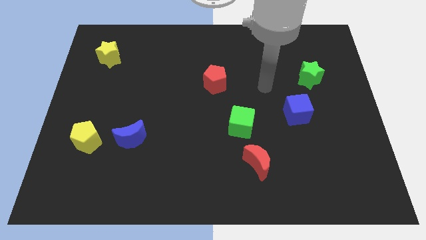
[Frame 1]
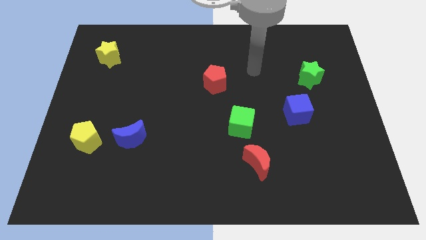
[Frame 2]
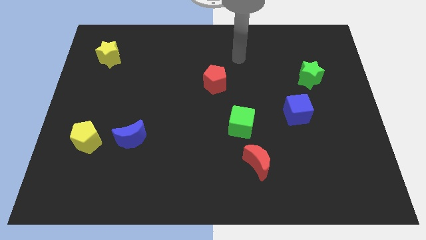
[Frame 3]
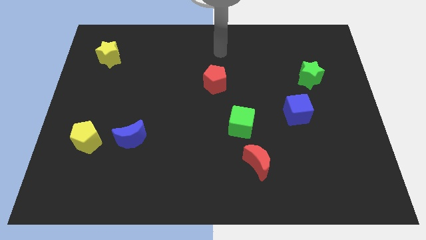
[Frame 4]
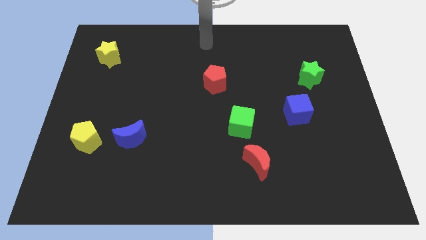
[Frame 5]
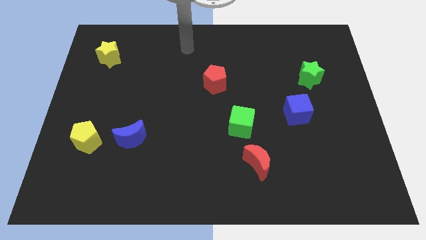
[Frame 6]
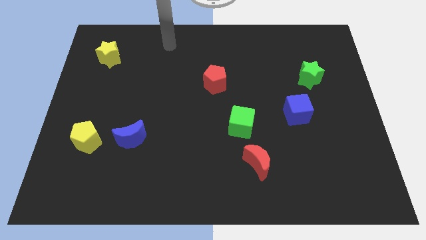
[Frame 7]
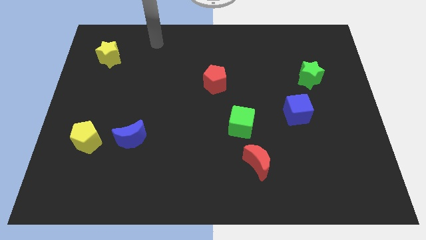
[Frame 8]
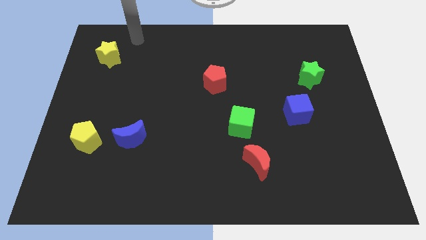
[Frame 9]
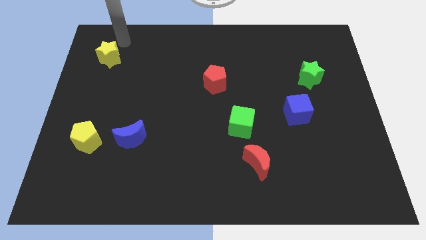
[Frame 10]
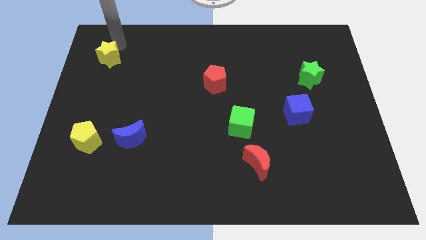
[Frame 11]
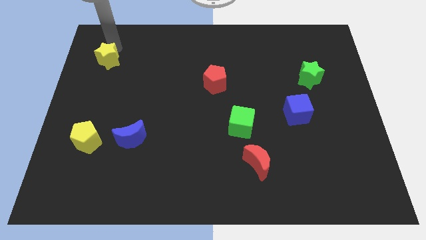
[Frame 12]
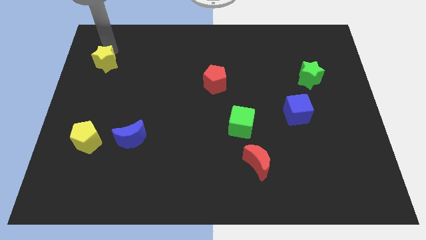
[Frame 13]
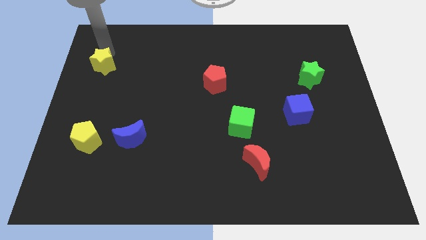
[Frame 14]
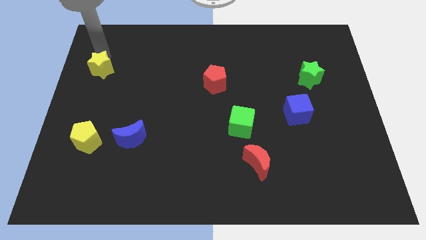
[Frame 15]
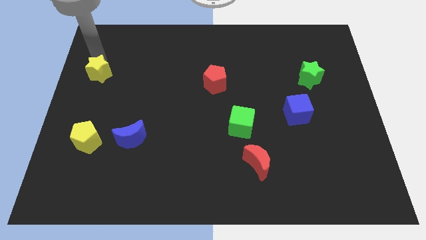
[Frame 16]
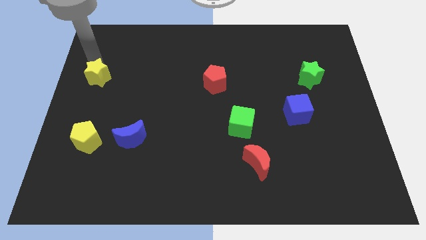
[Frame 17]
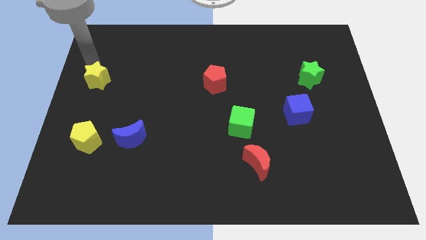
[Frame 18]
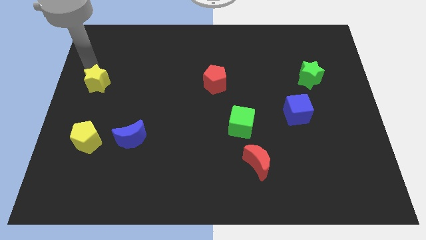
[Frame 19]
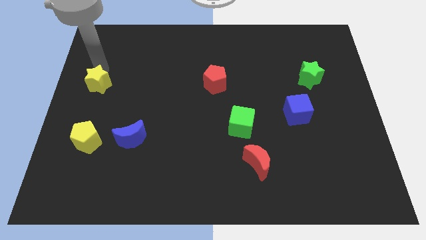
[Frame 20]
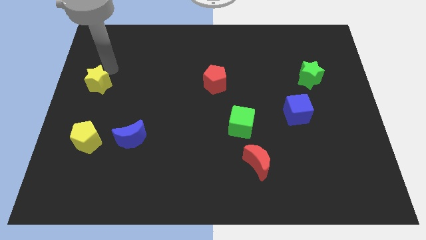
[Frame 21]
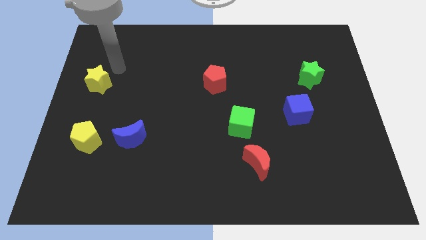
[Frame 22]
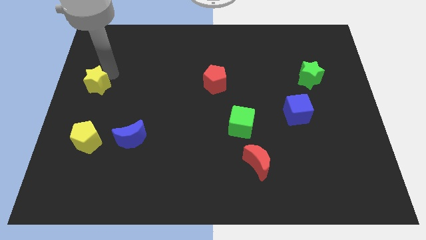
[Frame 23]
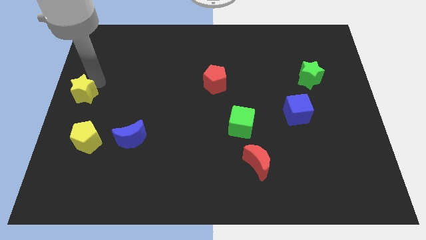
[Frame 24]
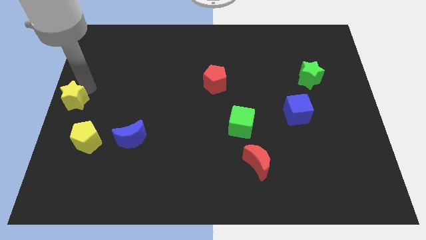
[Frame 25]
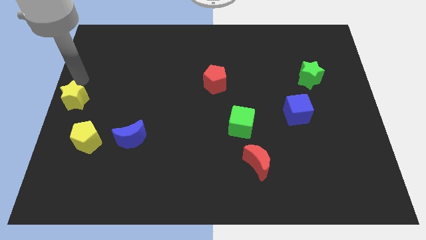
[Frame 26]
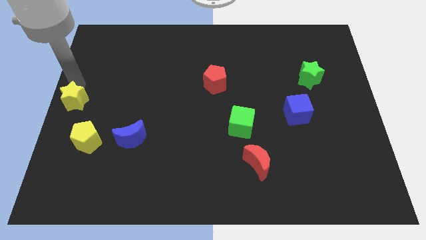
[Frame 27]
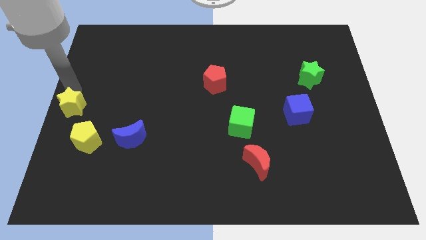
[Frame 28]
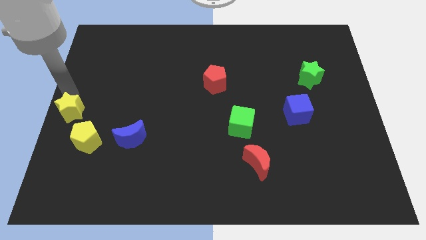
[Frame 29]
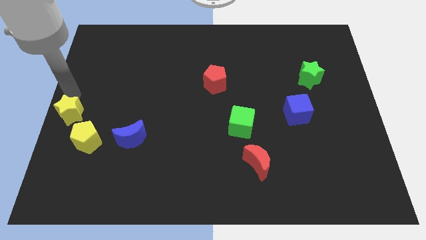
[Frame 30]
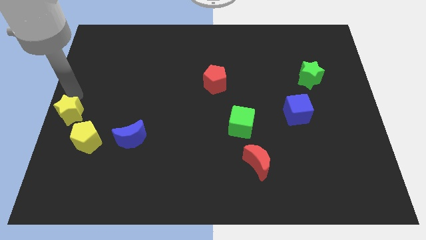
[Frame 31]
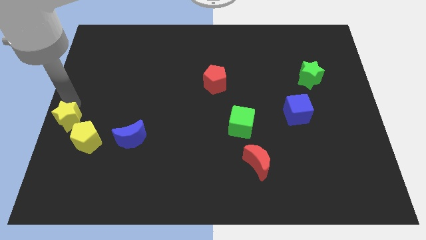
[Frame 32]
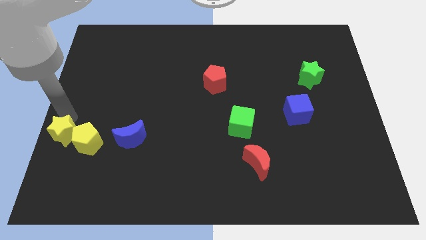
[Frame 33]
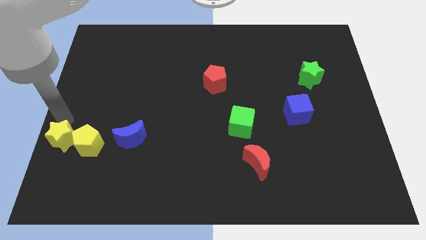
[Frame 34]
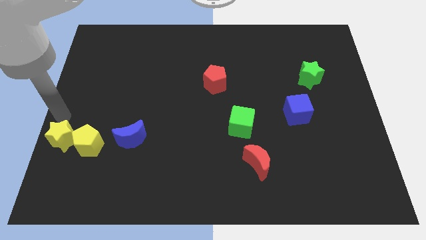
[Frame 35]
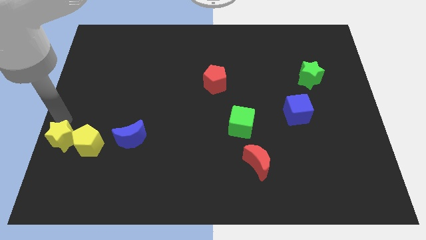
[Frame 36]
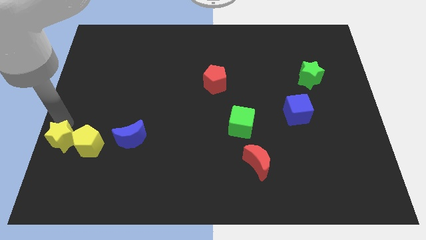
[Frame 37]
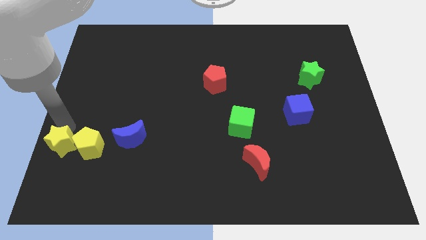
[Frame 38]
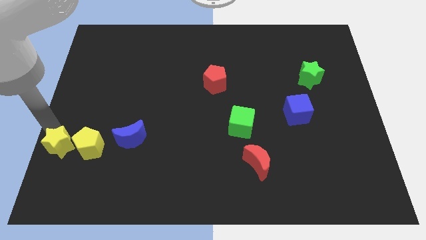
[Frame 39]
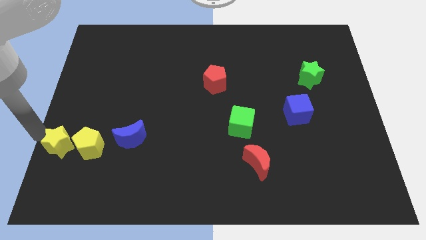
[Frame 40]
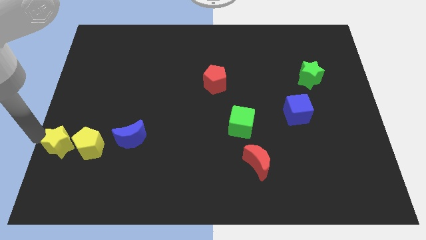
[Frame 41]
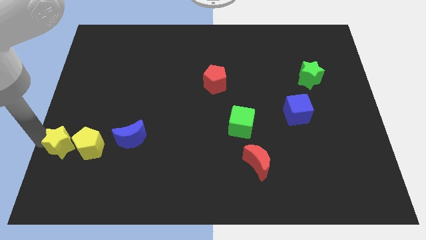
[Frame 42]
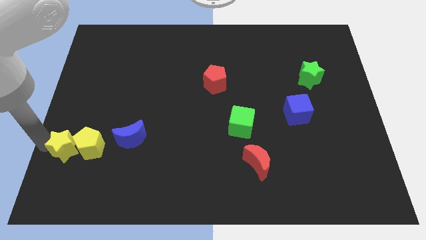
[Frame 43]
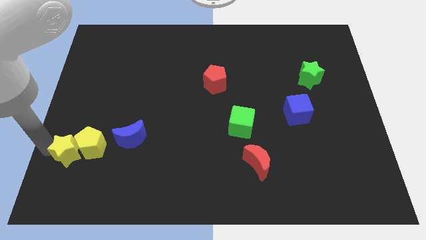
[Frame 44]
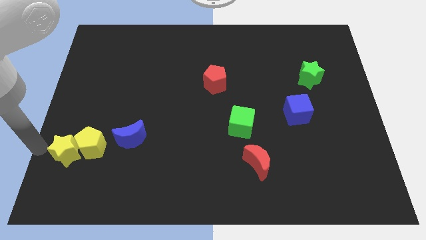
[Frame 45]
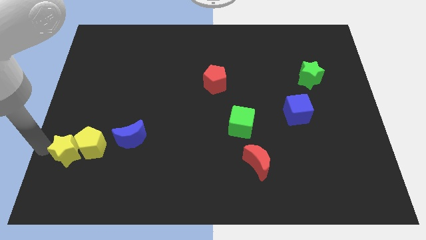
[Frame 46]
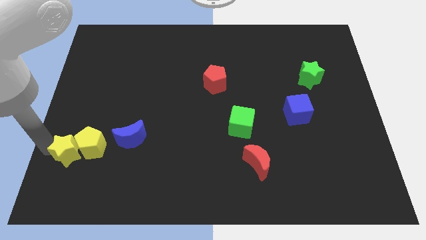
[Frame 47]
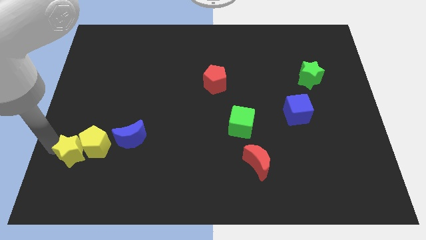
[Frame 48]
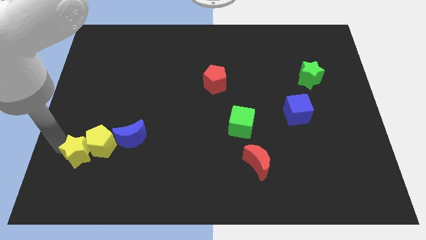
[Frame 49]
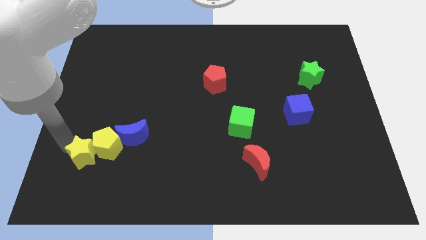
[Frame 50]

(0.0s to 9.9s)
slide the yellow star diagonally down and to the left of the blue moon

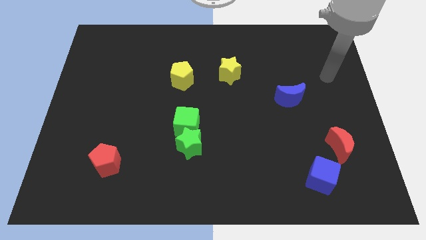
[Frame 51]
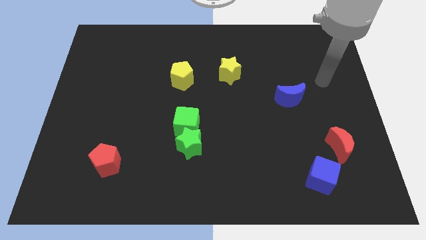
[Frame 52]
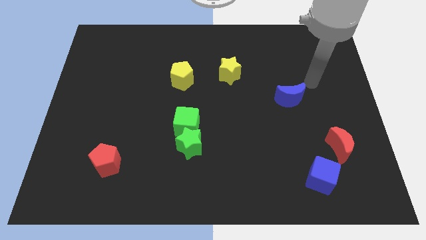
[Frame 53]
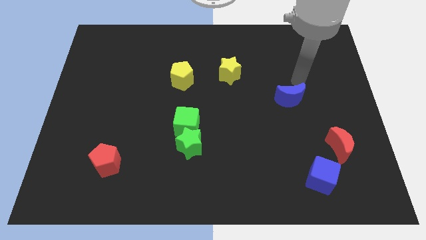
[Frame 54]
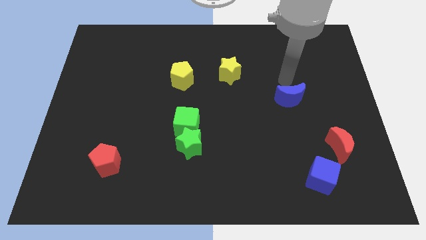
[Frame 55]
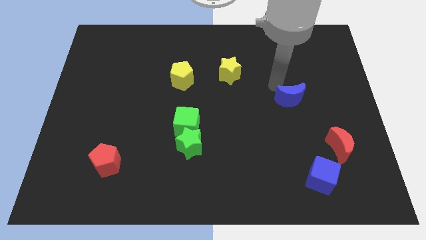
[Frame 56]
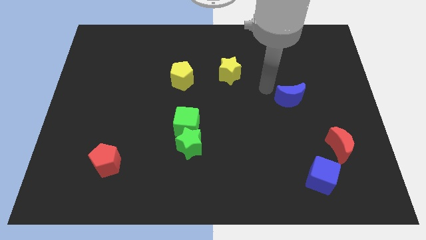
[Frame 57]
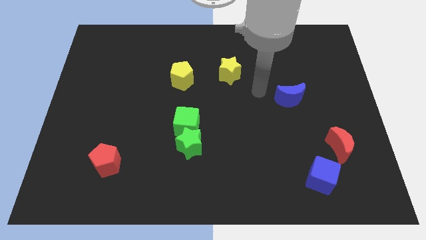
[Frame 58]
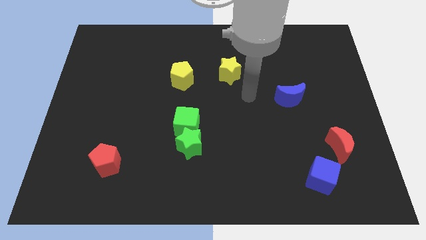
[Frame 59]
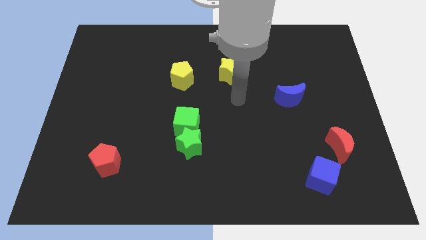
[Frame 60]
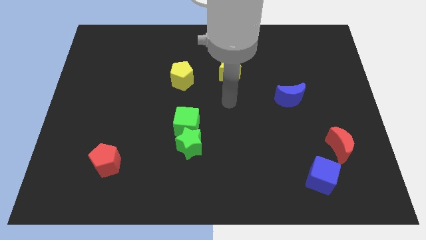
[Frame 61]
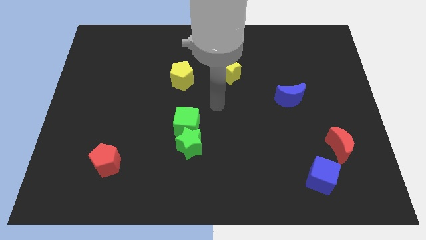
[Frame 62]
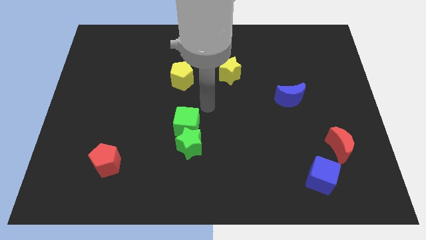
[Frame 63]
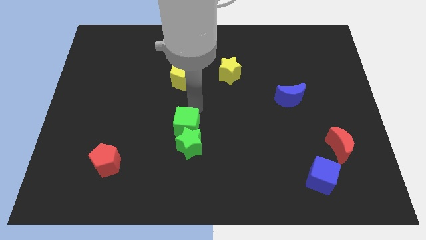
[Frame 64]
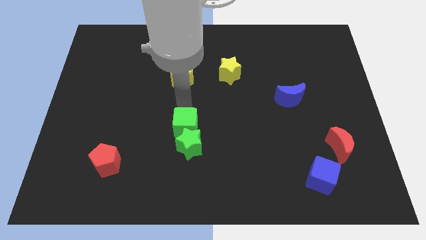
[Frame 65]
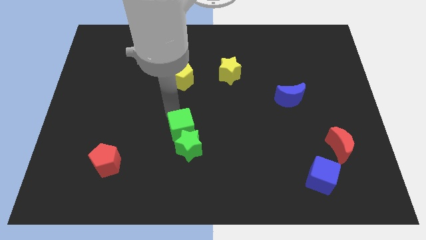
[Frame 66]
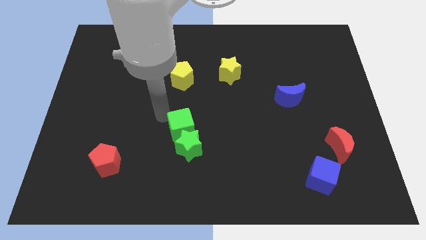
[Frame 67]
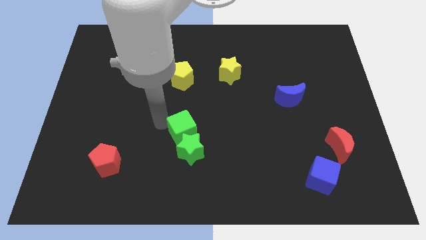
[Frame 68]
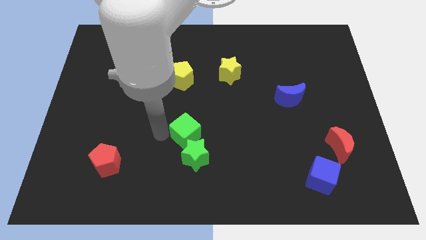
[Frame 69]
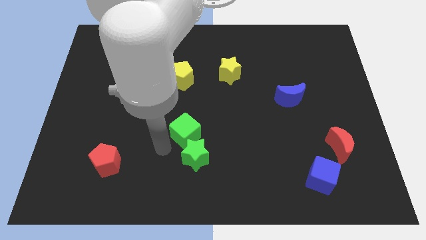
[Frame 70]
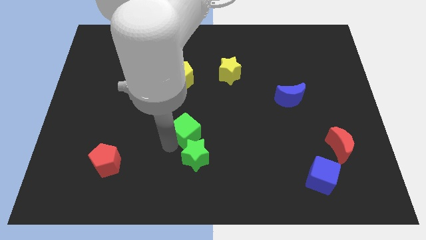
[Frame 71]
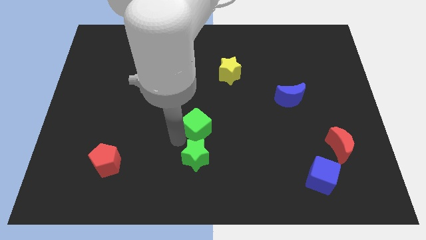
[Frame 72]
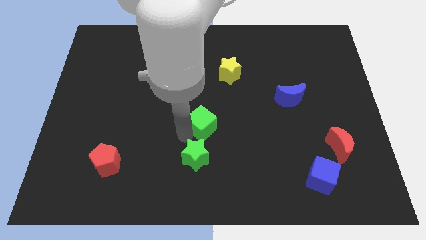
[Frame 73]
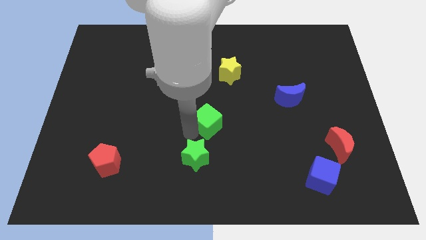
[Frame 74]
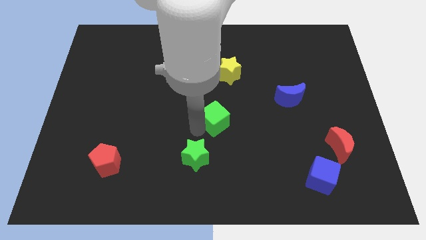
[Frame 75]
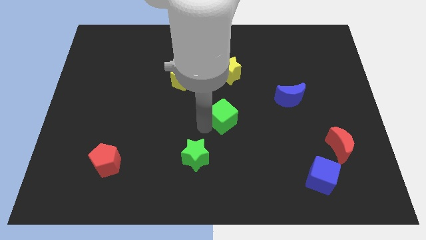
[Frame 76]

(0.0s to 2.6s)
slide the green cube below the yellow star
